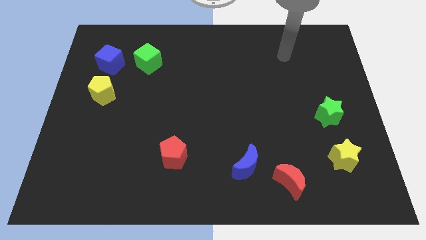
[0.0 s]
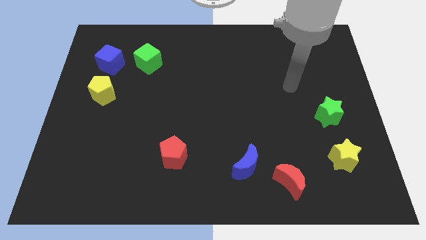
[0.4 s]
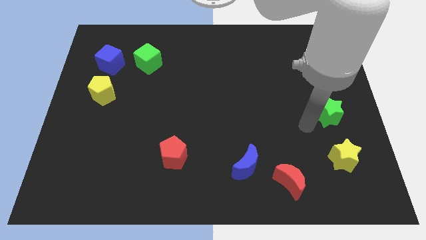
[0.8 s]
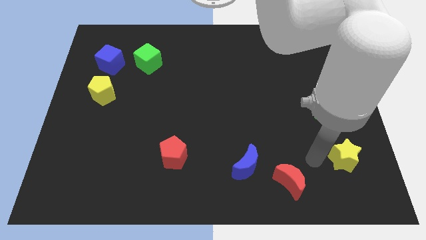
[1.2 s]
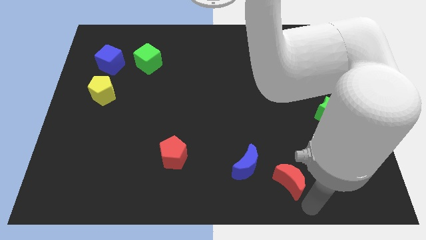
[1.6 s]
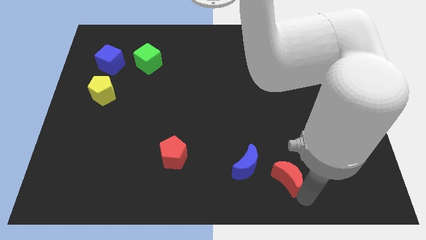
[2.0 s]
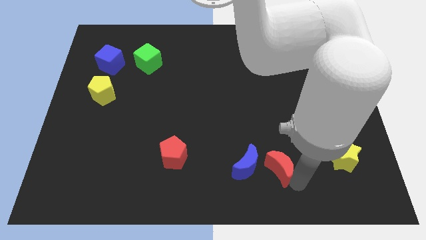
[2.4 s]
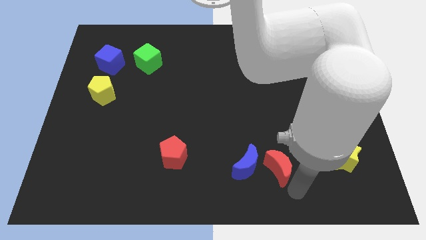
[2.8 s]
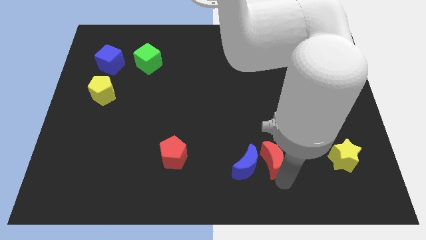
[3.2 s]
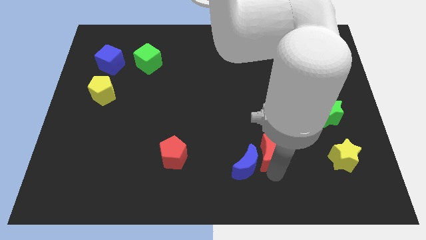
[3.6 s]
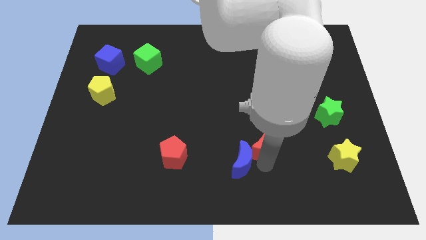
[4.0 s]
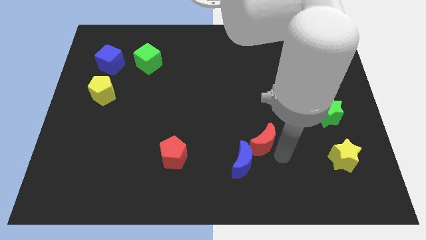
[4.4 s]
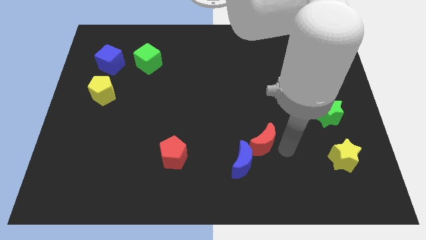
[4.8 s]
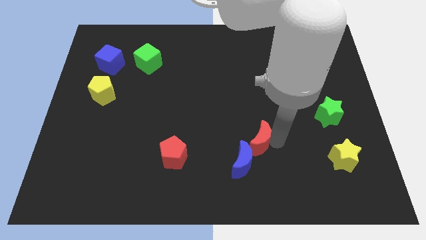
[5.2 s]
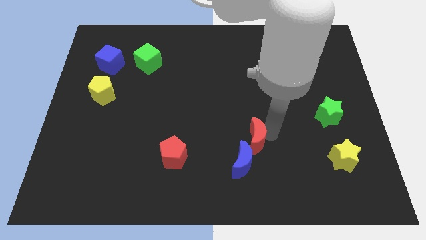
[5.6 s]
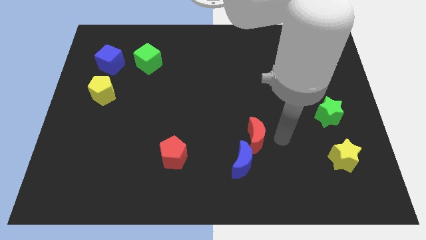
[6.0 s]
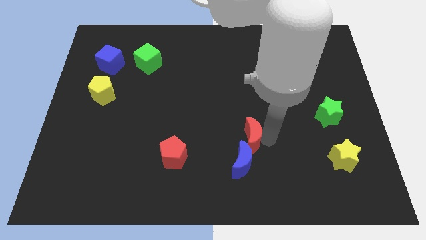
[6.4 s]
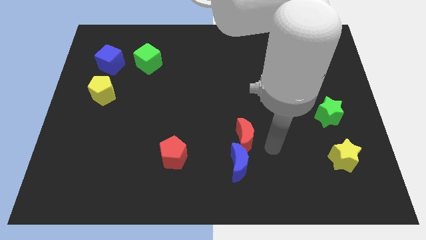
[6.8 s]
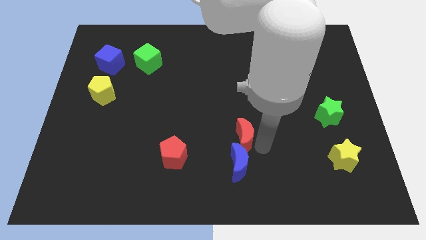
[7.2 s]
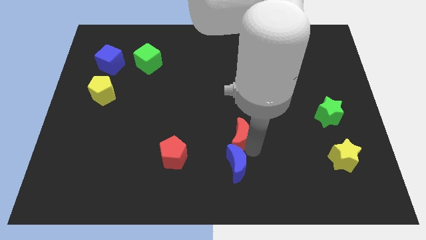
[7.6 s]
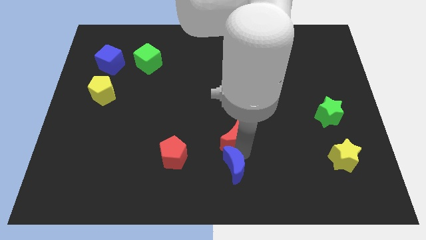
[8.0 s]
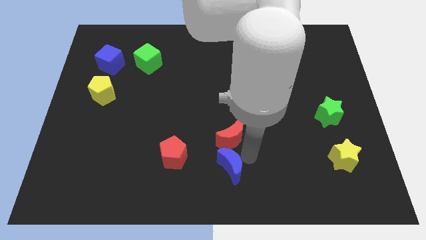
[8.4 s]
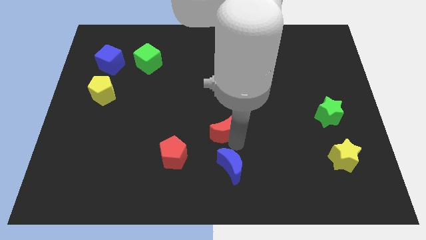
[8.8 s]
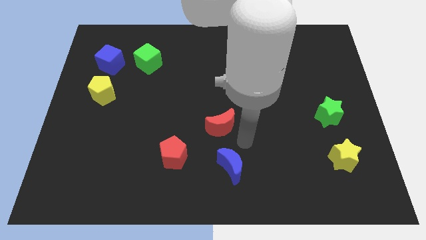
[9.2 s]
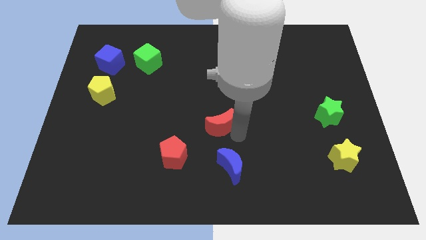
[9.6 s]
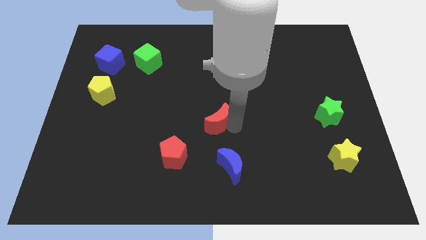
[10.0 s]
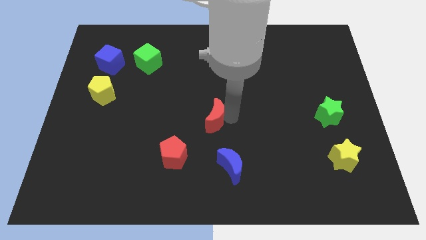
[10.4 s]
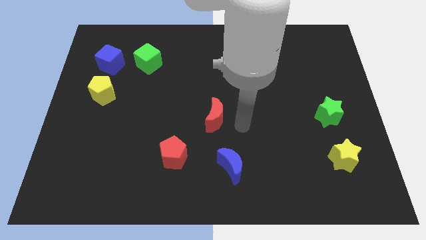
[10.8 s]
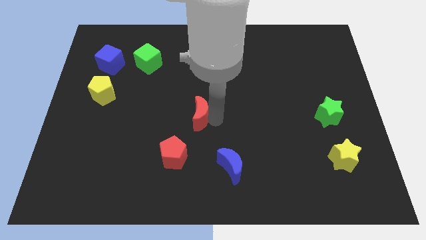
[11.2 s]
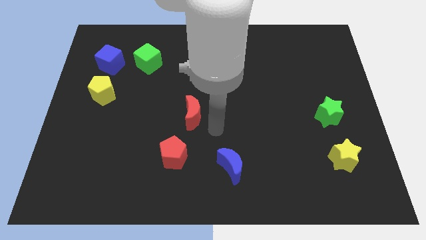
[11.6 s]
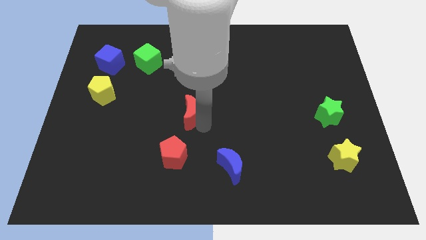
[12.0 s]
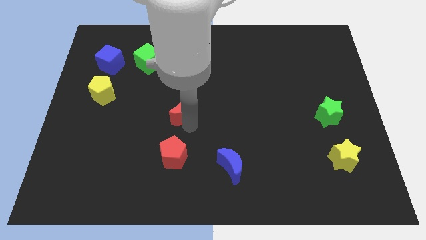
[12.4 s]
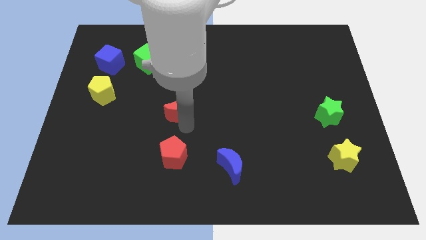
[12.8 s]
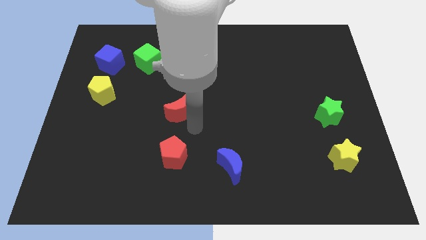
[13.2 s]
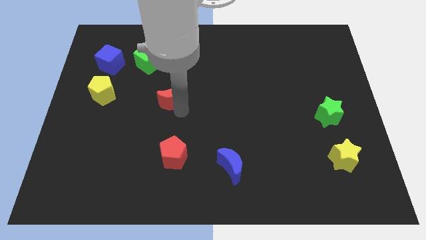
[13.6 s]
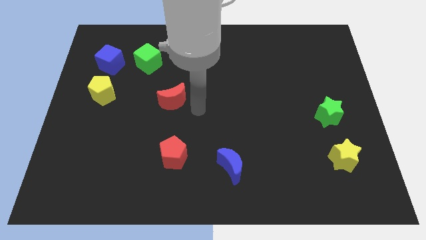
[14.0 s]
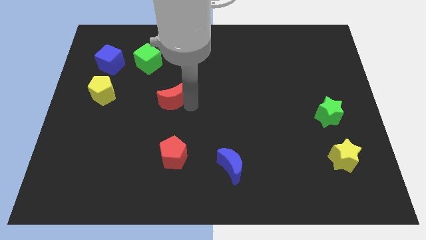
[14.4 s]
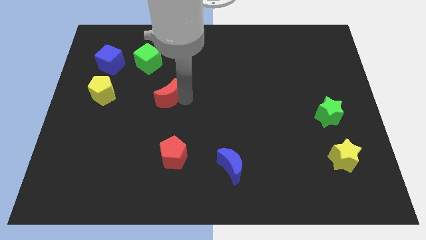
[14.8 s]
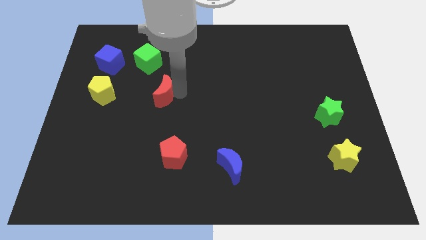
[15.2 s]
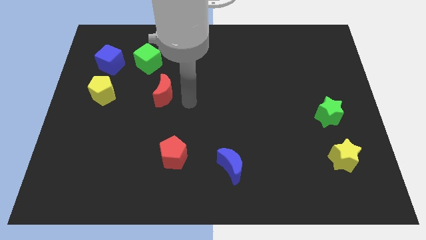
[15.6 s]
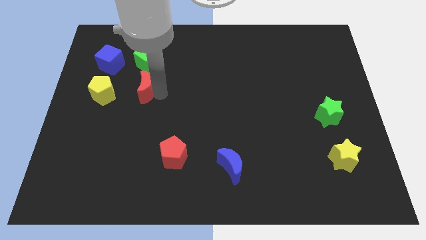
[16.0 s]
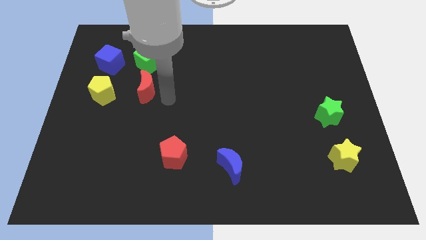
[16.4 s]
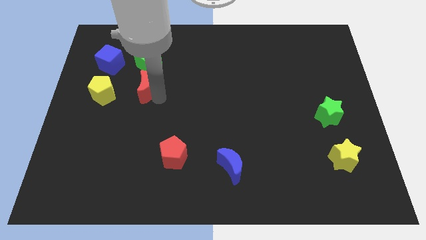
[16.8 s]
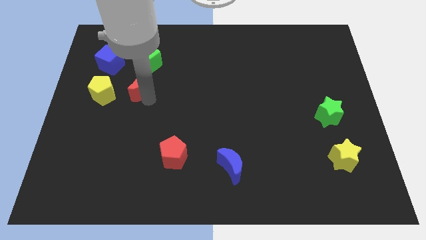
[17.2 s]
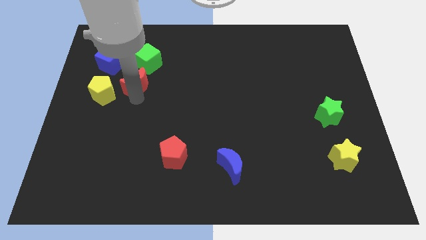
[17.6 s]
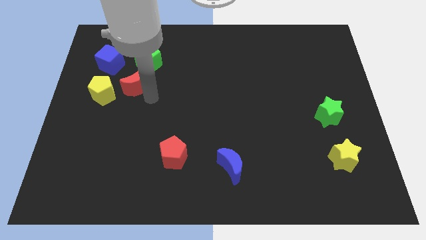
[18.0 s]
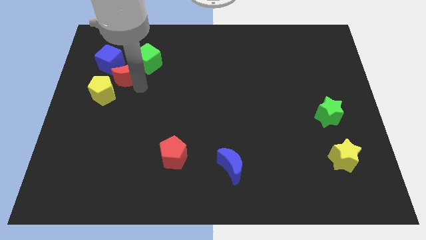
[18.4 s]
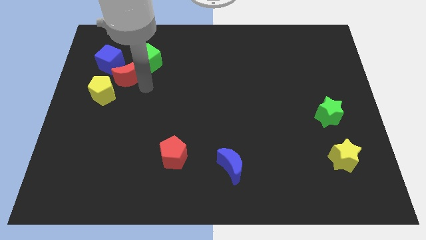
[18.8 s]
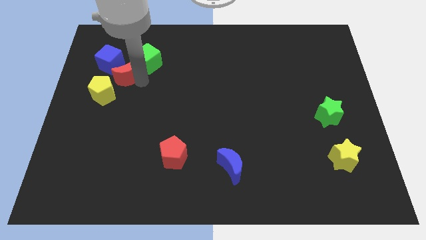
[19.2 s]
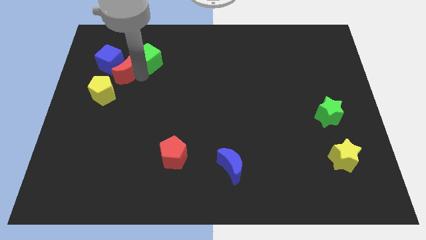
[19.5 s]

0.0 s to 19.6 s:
put the red moon to the blue cube

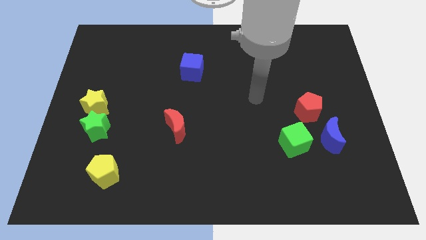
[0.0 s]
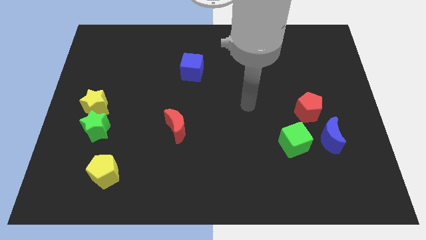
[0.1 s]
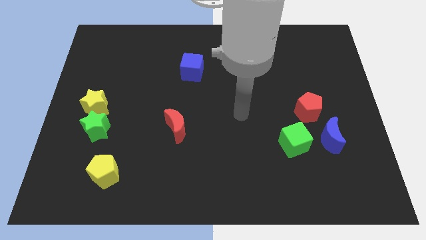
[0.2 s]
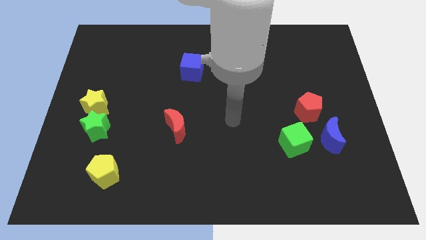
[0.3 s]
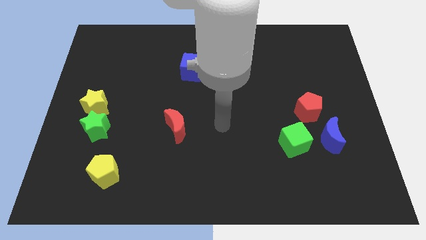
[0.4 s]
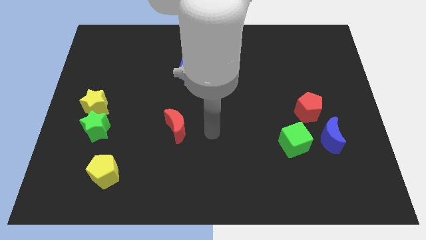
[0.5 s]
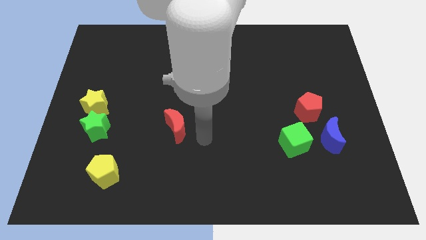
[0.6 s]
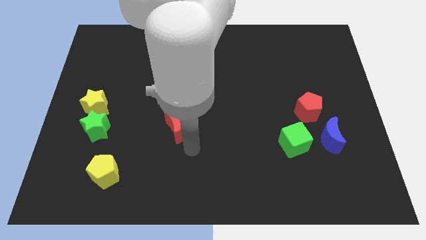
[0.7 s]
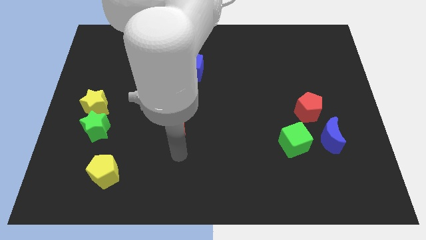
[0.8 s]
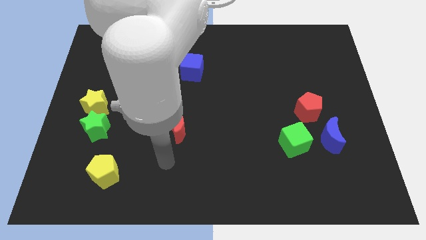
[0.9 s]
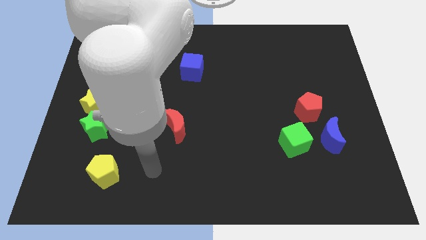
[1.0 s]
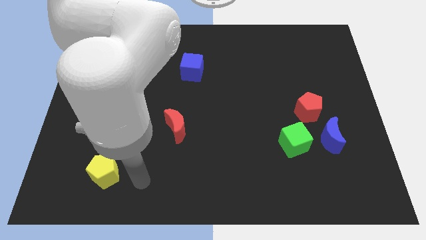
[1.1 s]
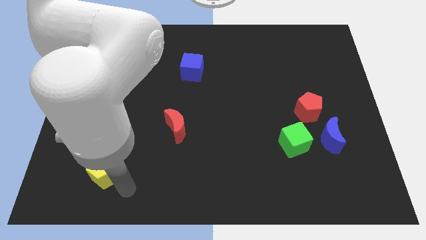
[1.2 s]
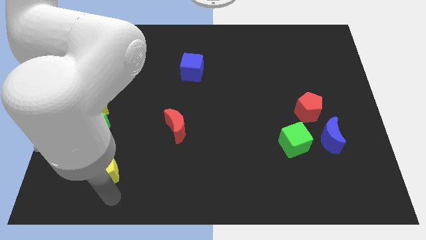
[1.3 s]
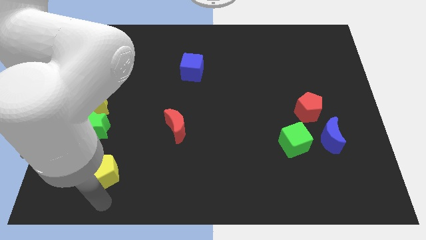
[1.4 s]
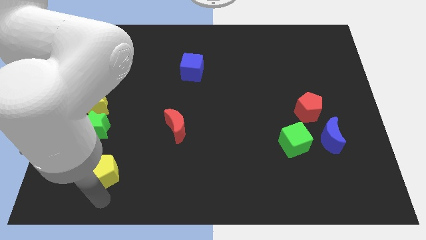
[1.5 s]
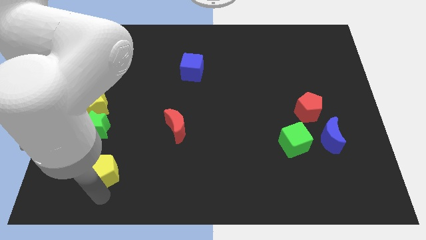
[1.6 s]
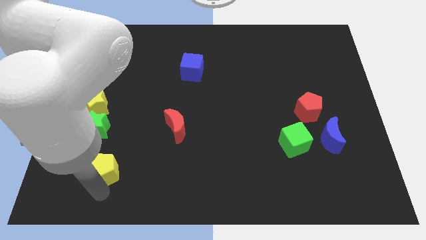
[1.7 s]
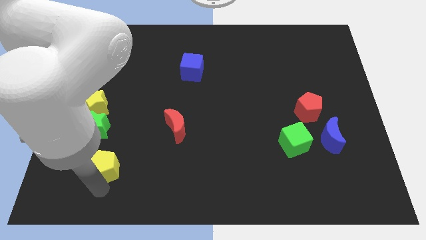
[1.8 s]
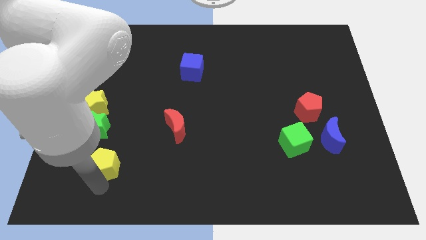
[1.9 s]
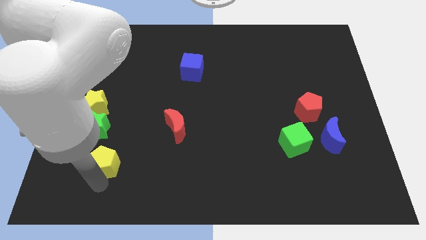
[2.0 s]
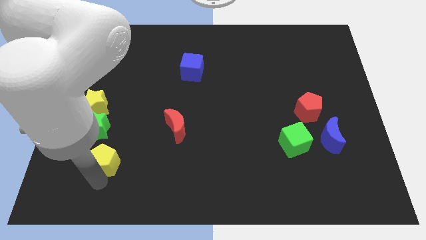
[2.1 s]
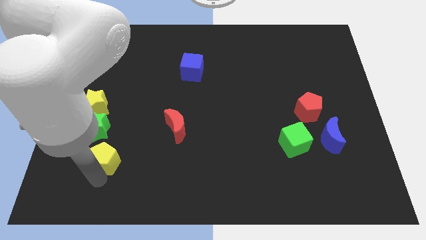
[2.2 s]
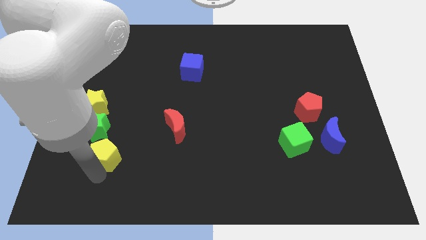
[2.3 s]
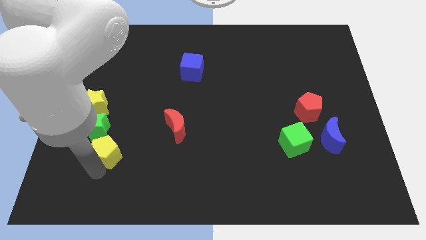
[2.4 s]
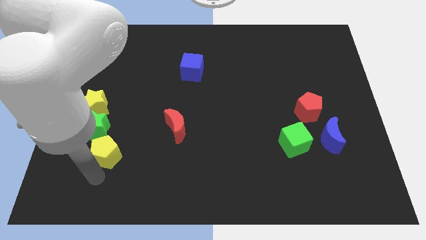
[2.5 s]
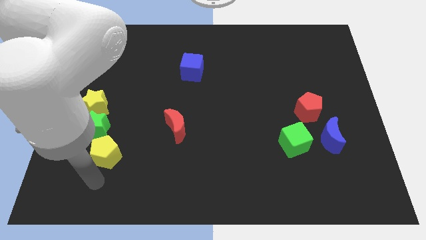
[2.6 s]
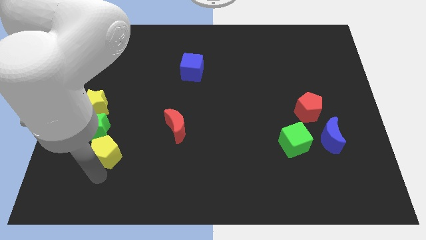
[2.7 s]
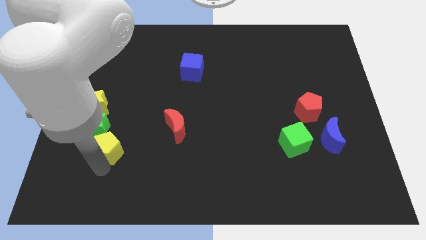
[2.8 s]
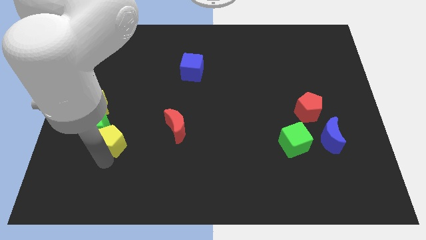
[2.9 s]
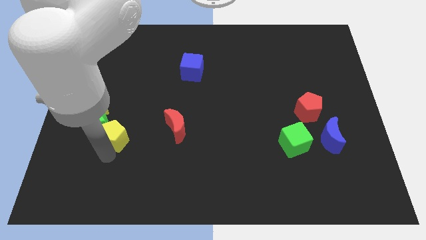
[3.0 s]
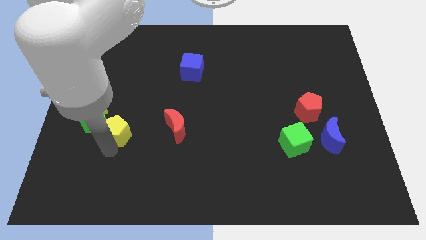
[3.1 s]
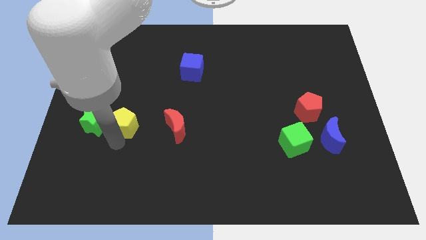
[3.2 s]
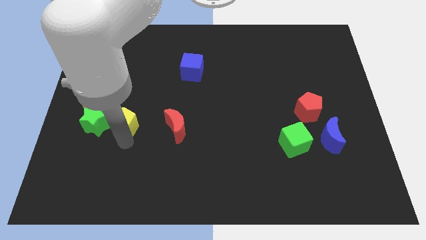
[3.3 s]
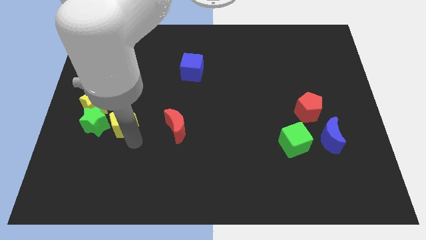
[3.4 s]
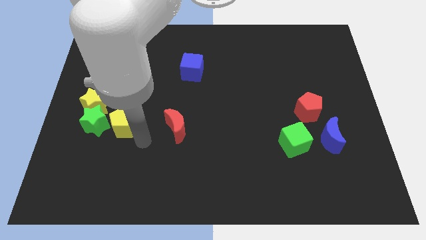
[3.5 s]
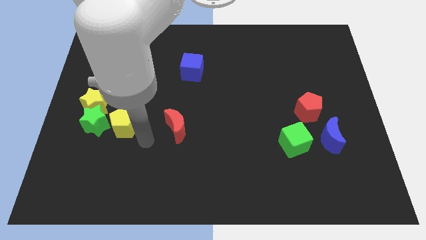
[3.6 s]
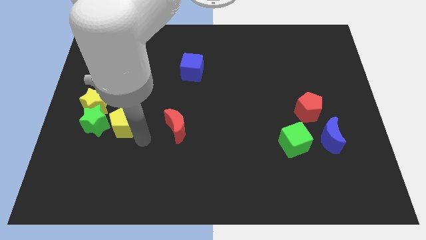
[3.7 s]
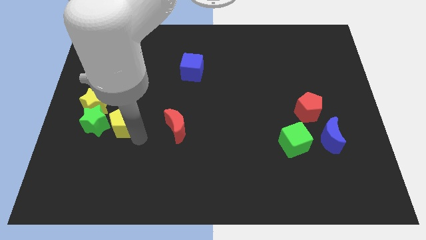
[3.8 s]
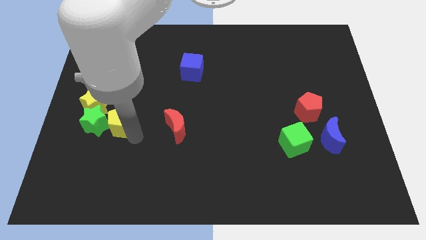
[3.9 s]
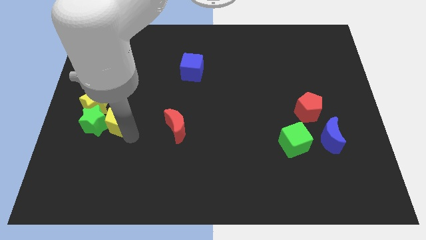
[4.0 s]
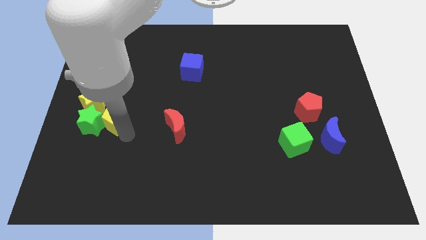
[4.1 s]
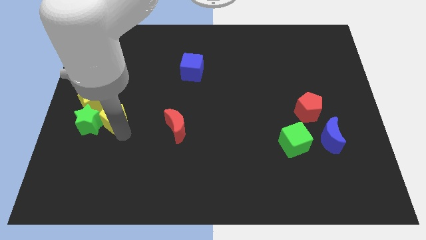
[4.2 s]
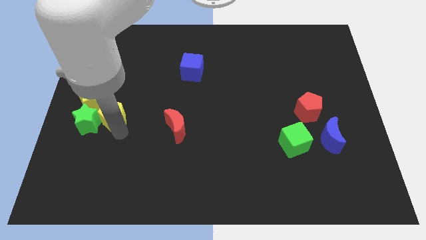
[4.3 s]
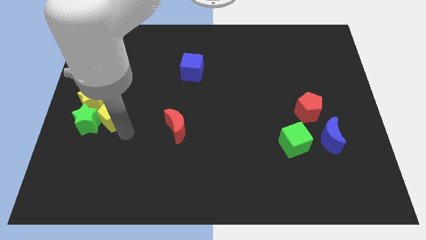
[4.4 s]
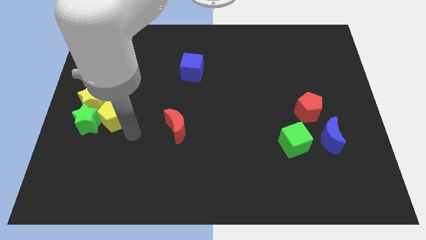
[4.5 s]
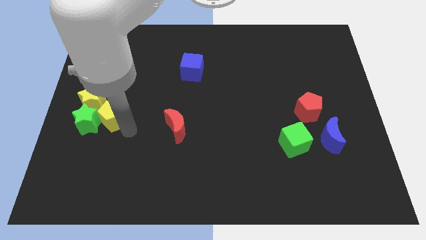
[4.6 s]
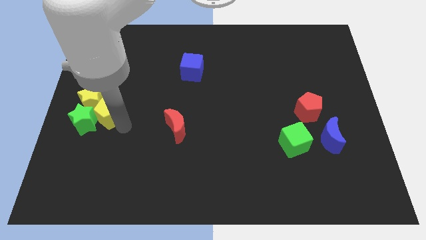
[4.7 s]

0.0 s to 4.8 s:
push the yellow pentagon next to the yellow star
